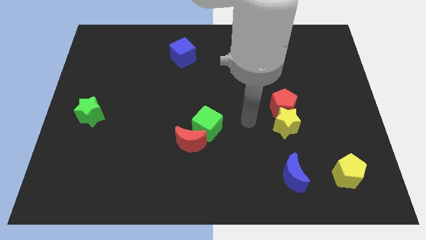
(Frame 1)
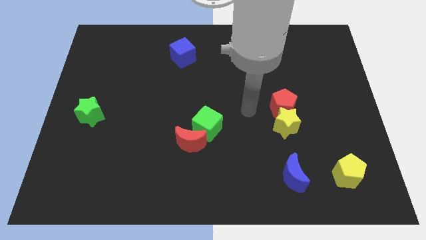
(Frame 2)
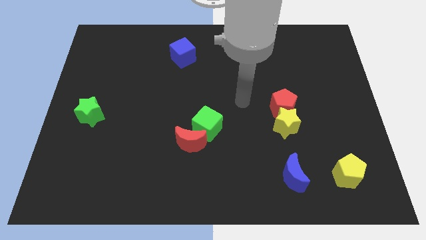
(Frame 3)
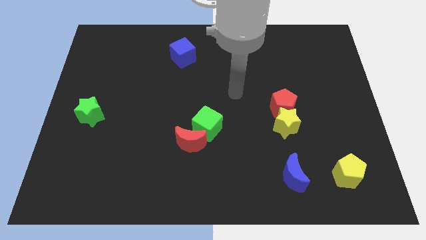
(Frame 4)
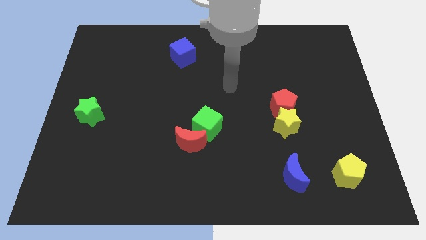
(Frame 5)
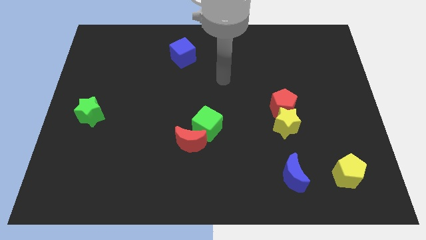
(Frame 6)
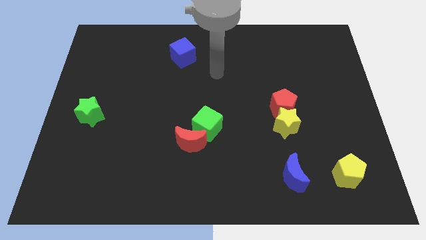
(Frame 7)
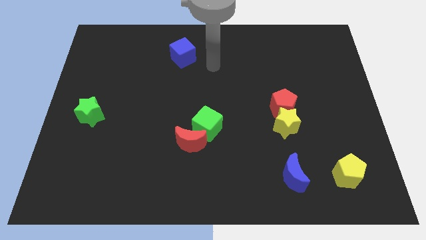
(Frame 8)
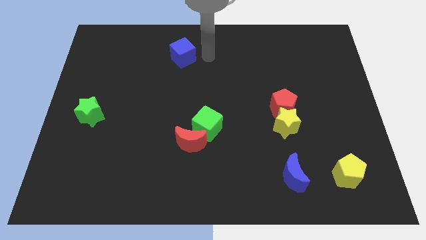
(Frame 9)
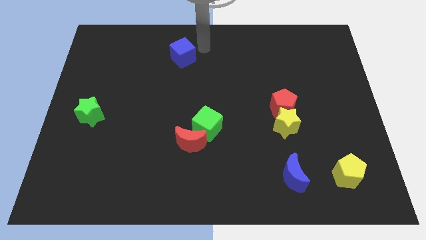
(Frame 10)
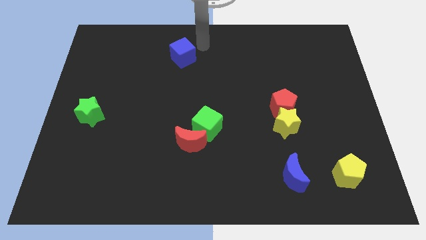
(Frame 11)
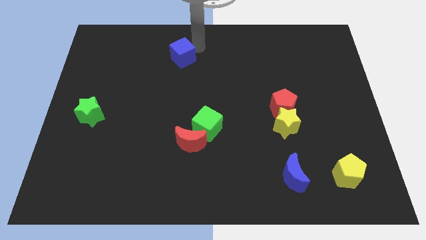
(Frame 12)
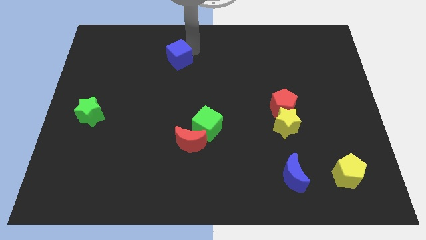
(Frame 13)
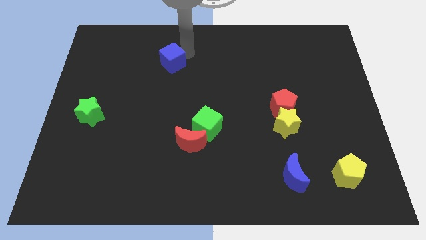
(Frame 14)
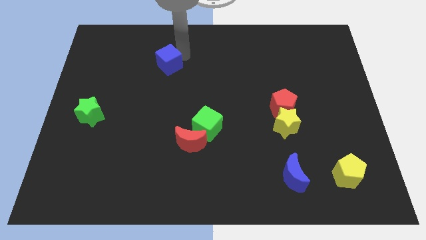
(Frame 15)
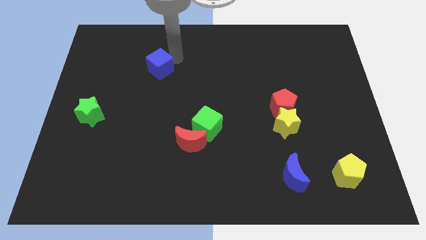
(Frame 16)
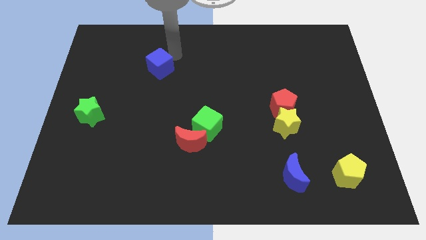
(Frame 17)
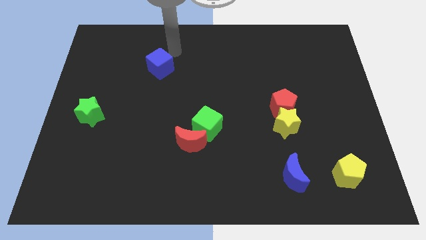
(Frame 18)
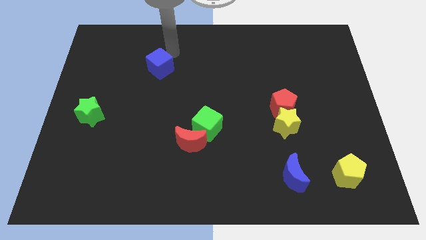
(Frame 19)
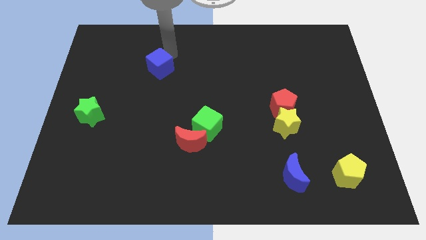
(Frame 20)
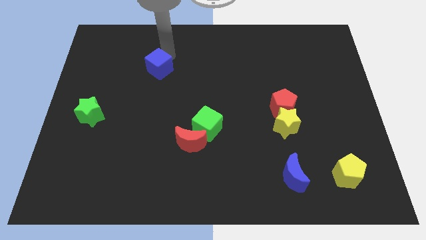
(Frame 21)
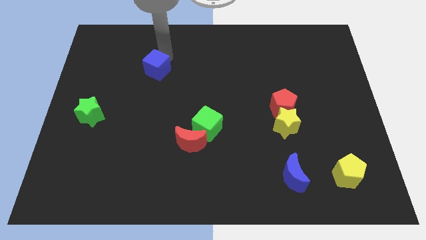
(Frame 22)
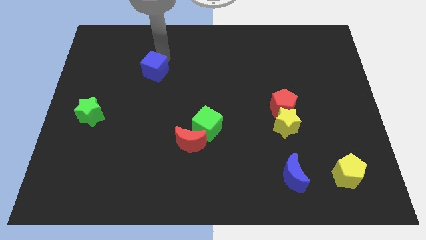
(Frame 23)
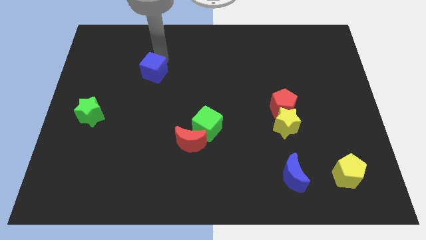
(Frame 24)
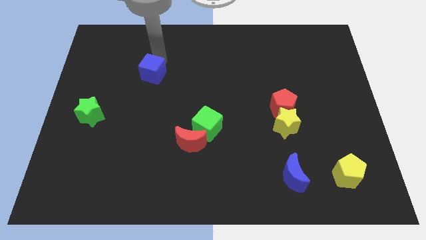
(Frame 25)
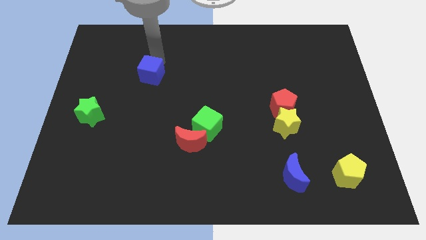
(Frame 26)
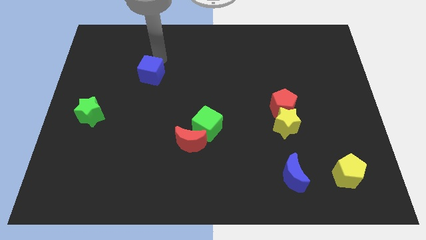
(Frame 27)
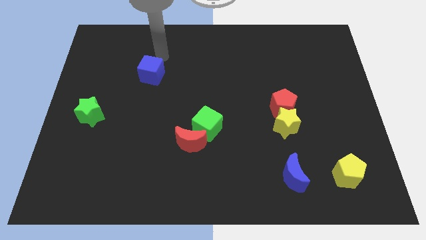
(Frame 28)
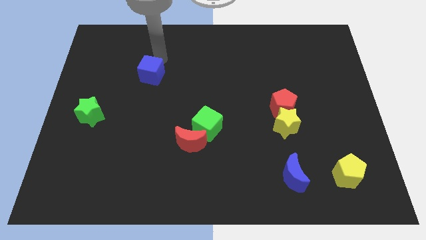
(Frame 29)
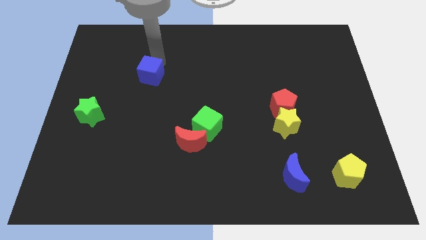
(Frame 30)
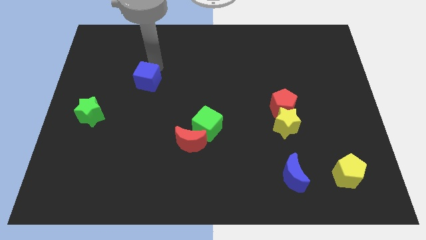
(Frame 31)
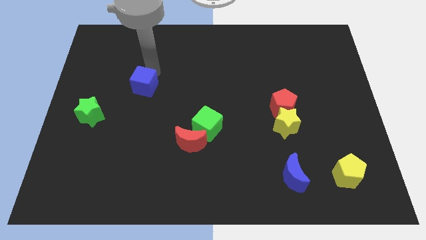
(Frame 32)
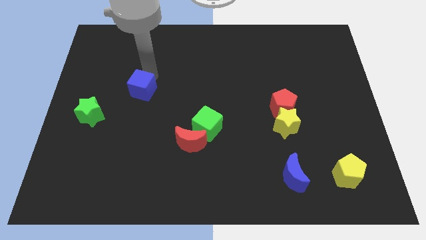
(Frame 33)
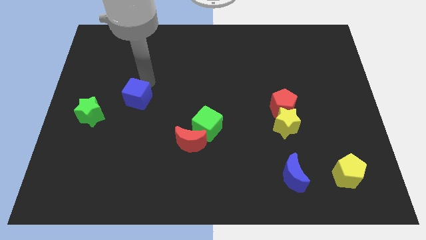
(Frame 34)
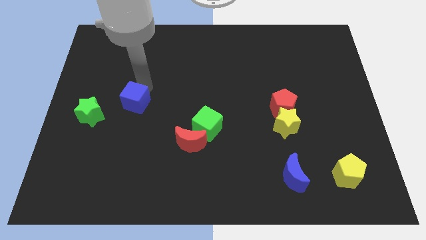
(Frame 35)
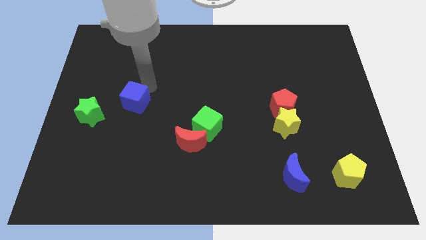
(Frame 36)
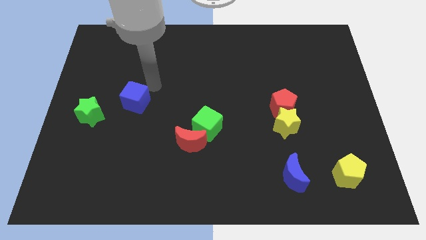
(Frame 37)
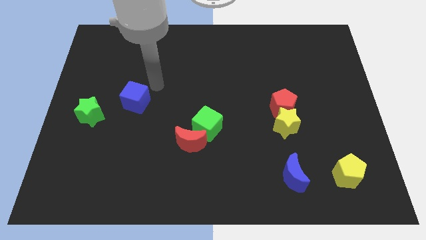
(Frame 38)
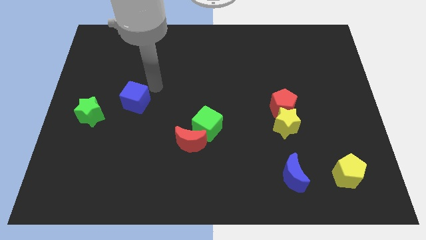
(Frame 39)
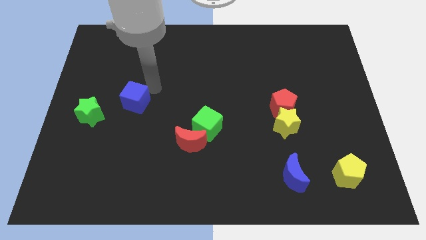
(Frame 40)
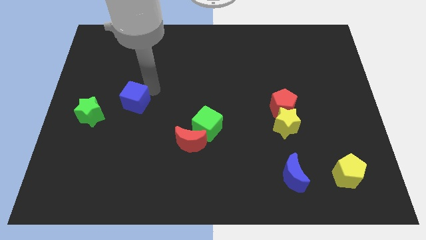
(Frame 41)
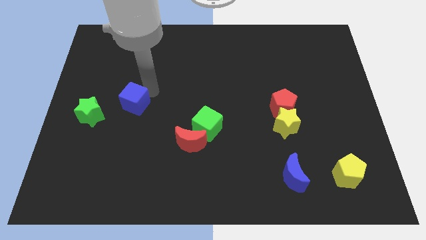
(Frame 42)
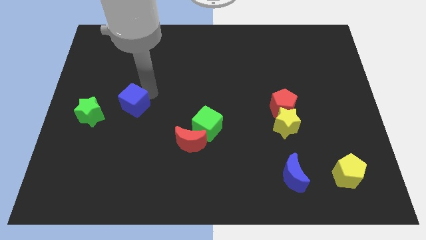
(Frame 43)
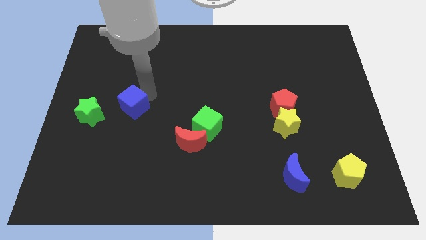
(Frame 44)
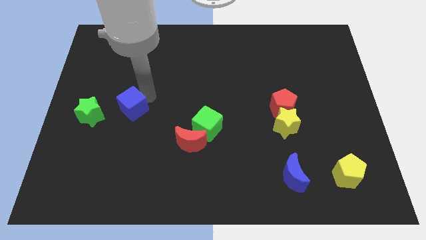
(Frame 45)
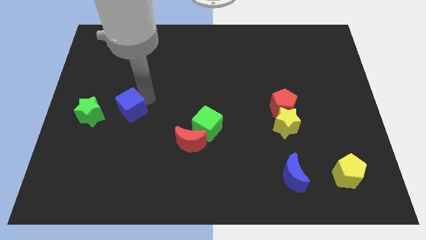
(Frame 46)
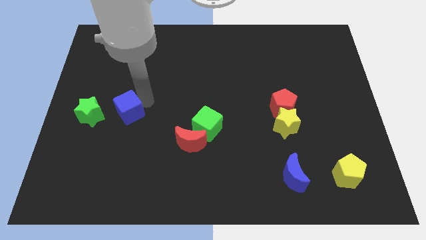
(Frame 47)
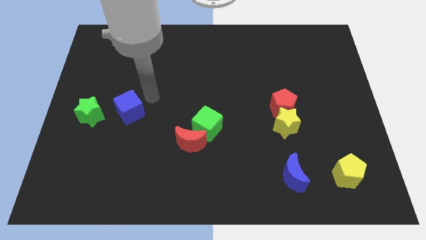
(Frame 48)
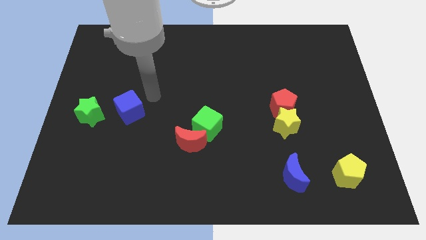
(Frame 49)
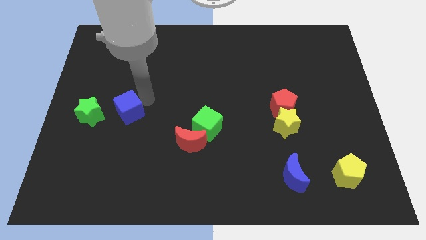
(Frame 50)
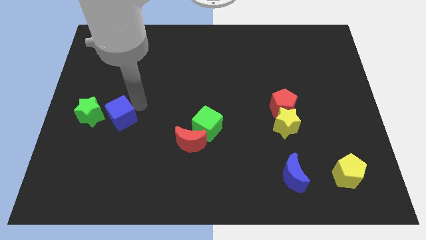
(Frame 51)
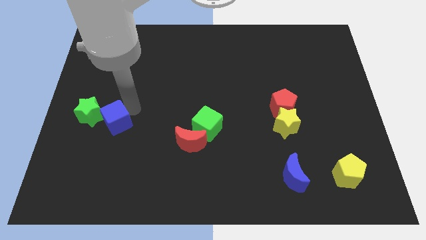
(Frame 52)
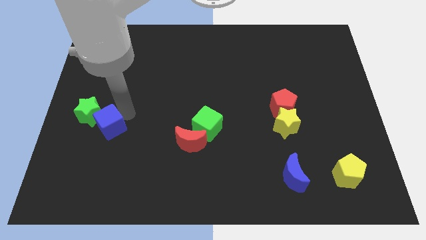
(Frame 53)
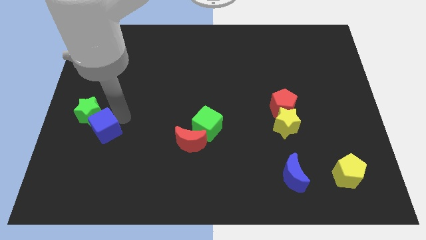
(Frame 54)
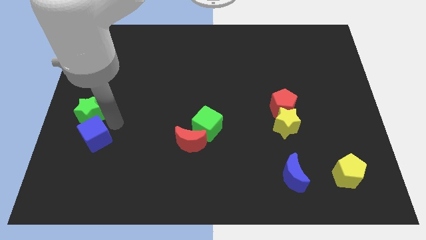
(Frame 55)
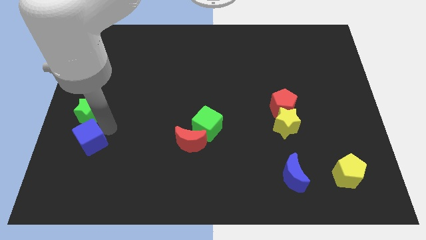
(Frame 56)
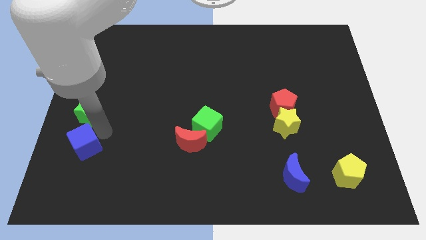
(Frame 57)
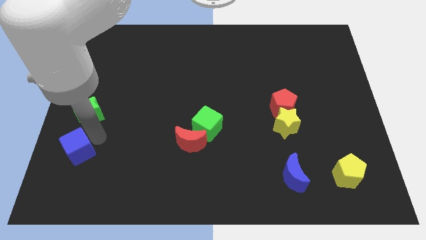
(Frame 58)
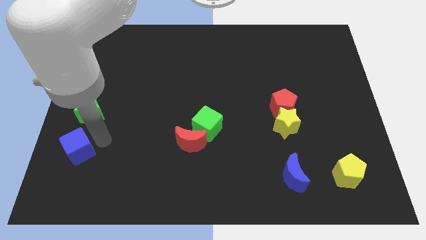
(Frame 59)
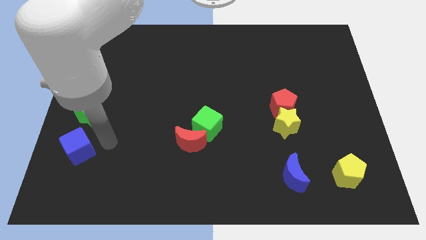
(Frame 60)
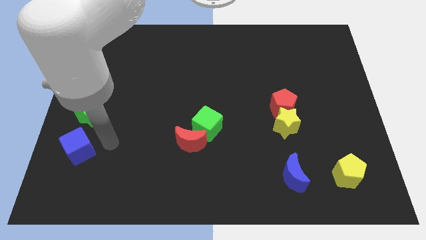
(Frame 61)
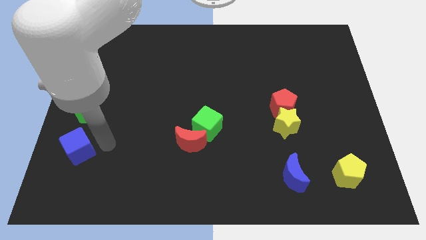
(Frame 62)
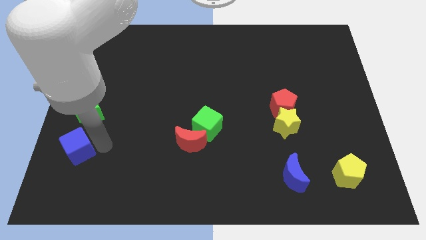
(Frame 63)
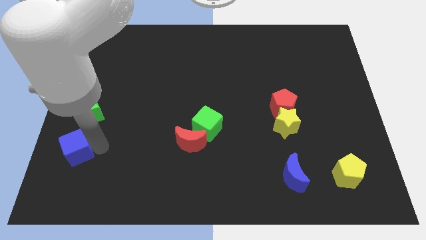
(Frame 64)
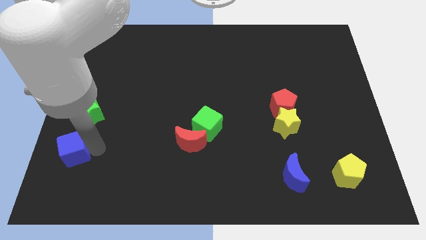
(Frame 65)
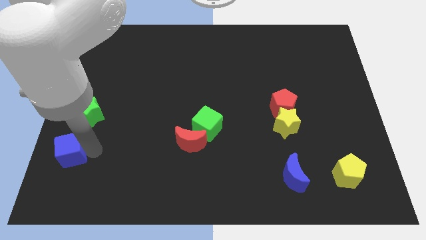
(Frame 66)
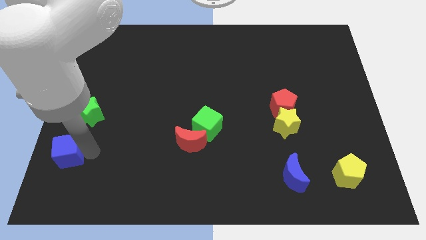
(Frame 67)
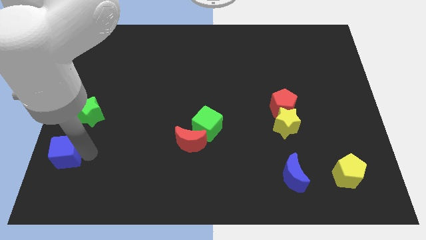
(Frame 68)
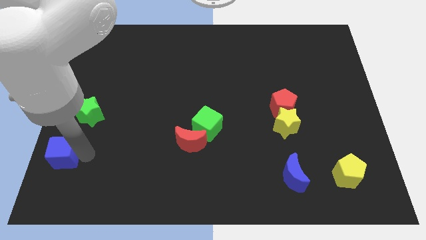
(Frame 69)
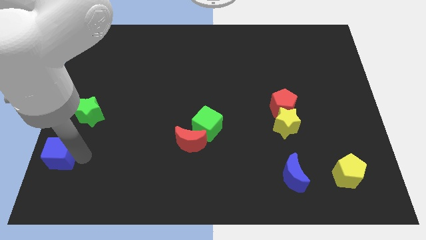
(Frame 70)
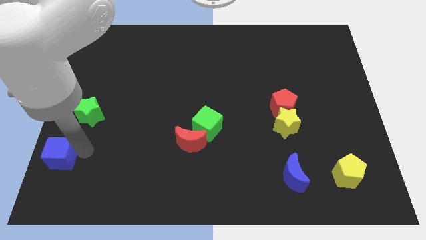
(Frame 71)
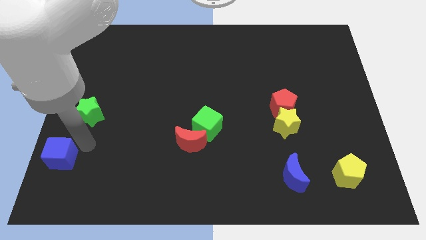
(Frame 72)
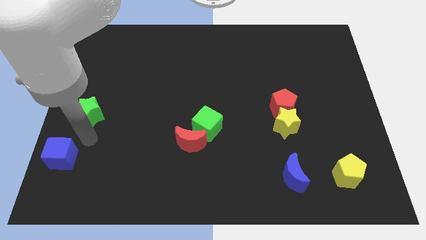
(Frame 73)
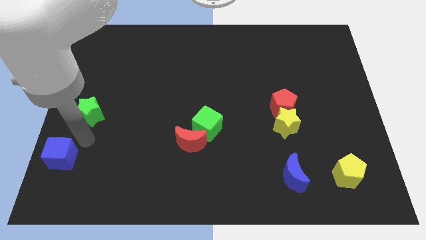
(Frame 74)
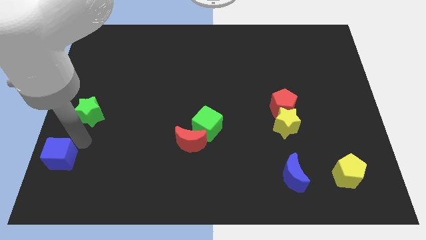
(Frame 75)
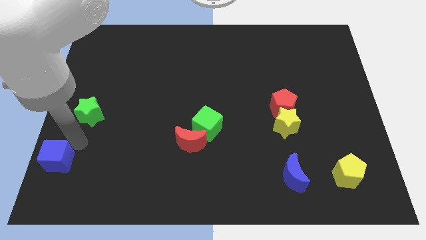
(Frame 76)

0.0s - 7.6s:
move the blue cube to the bottom left corner
